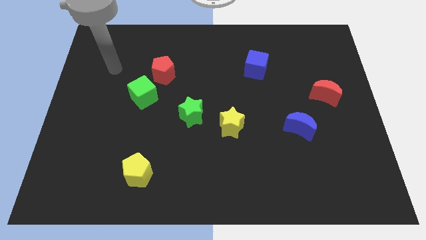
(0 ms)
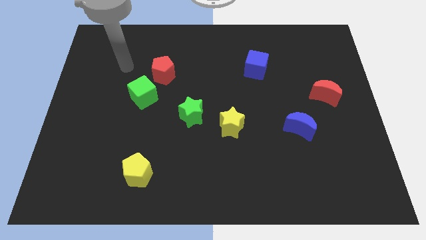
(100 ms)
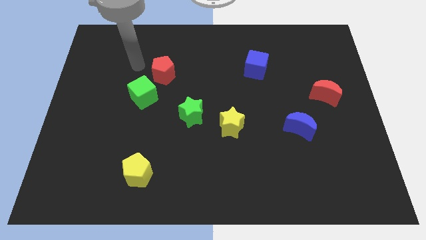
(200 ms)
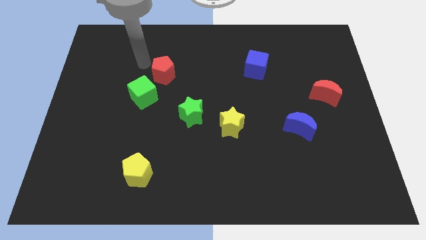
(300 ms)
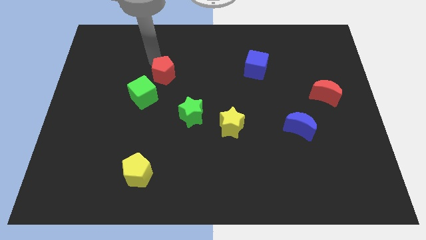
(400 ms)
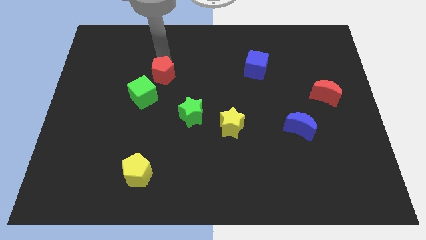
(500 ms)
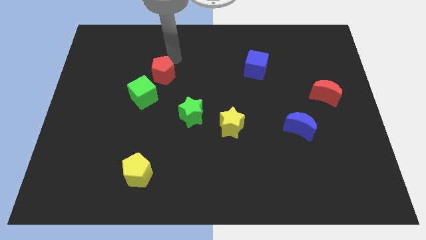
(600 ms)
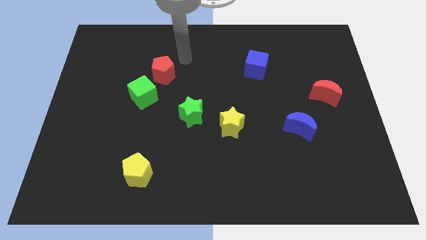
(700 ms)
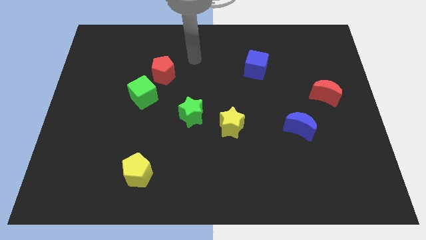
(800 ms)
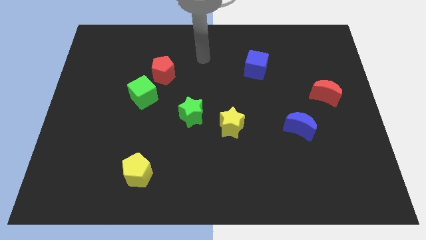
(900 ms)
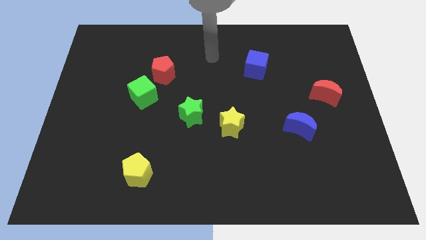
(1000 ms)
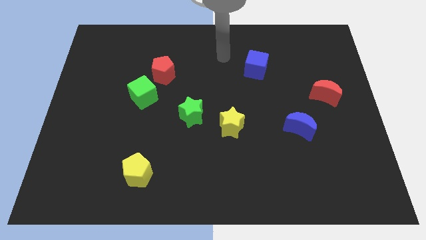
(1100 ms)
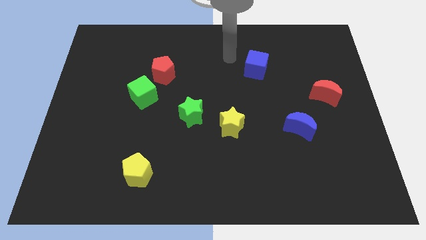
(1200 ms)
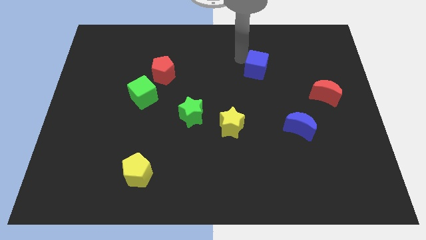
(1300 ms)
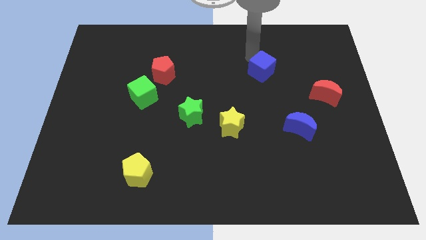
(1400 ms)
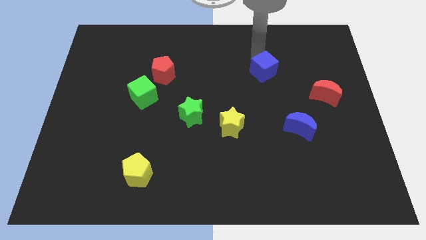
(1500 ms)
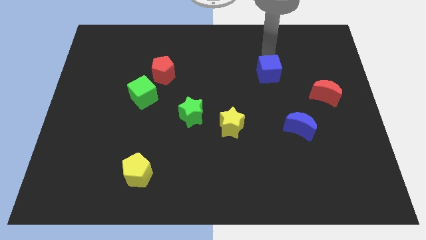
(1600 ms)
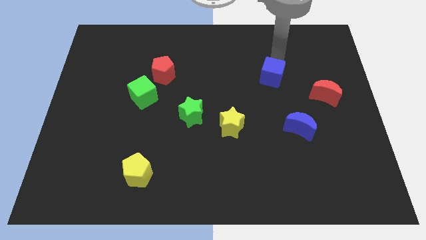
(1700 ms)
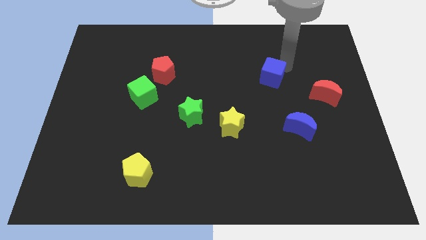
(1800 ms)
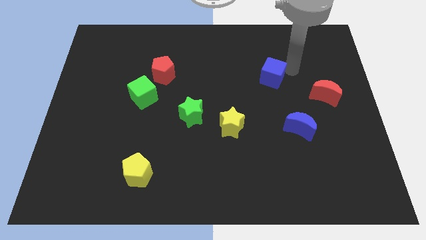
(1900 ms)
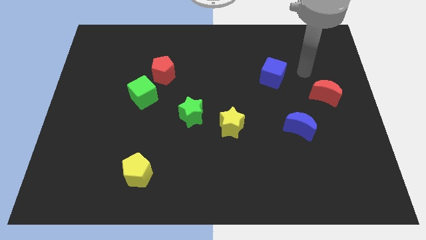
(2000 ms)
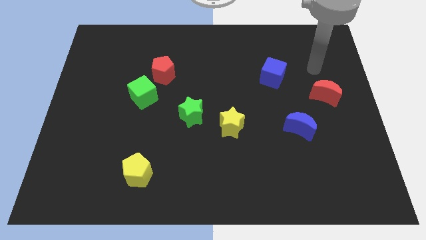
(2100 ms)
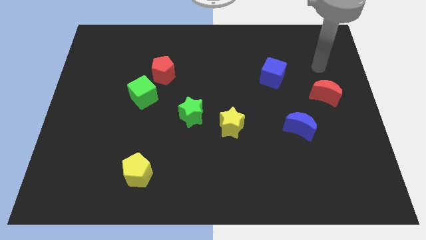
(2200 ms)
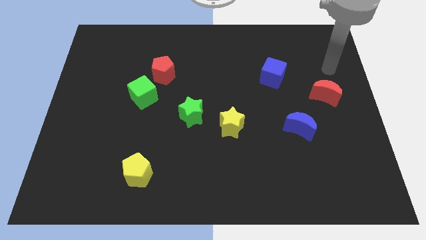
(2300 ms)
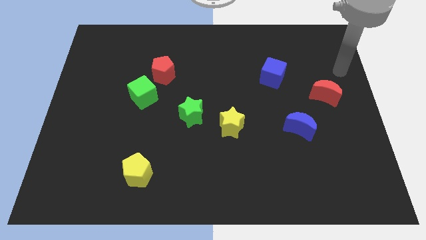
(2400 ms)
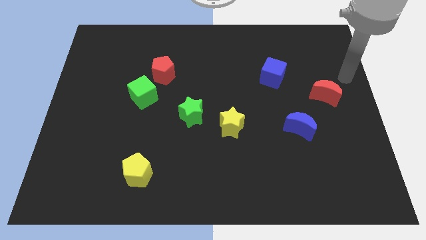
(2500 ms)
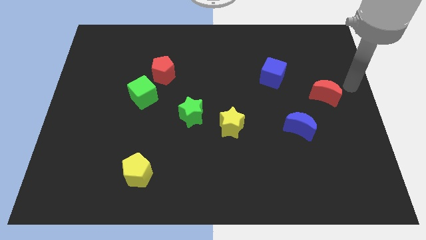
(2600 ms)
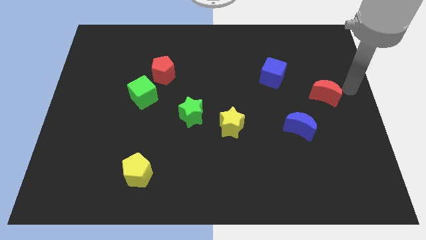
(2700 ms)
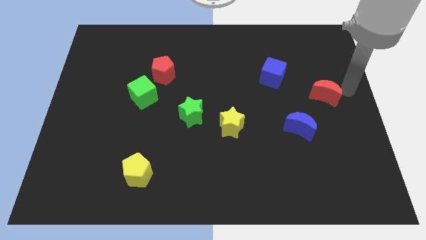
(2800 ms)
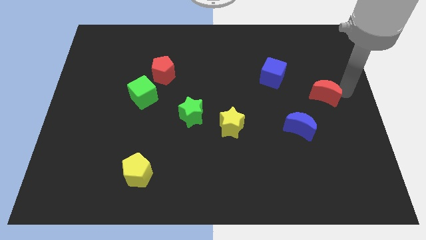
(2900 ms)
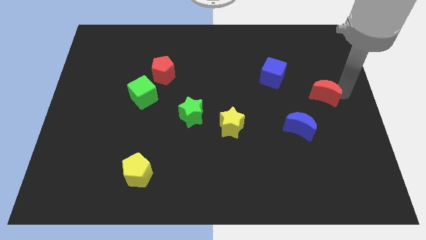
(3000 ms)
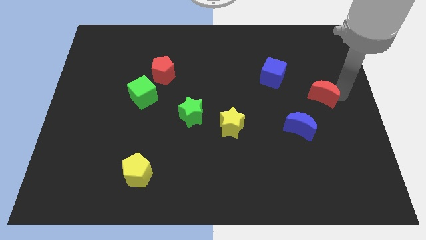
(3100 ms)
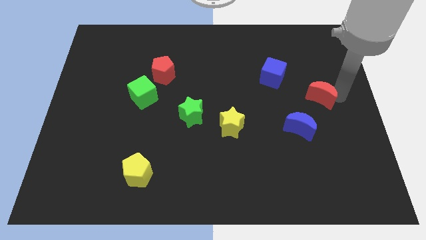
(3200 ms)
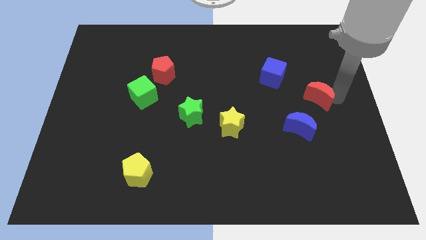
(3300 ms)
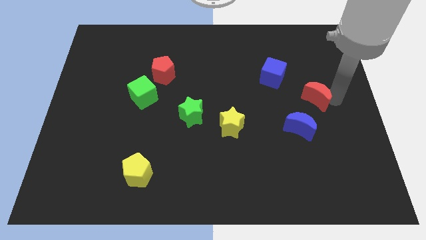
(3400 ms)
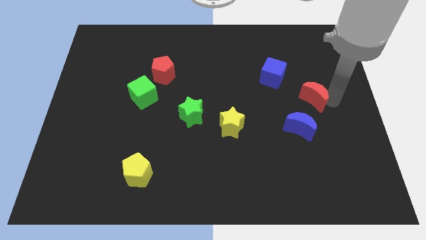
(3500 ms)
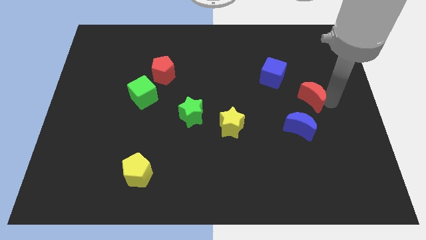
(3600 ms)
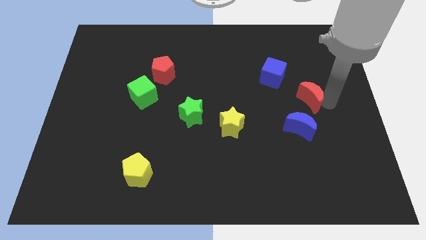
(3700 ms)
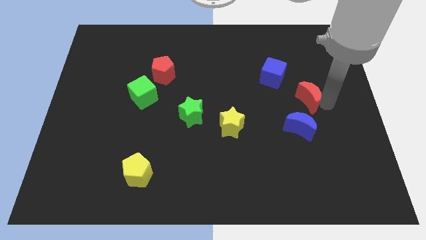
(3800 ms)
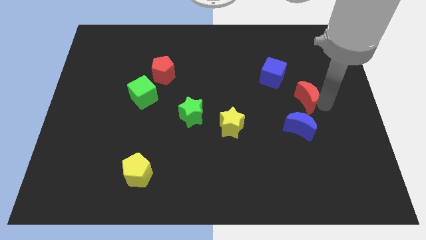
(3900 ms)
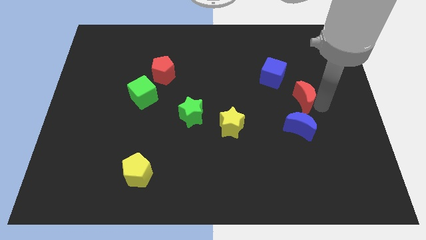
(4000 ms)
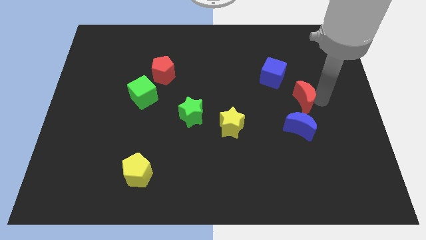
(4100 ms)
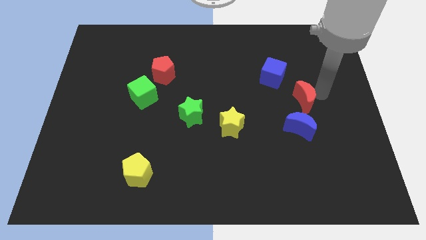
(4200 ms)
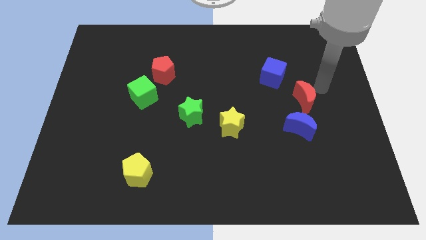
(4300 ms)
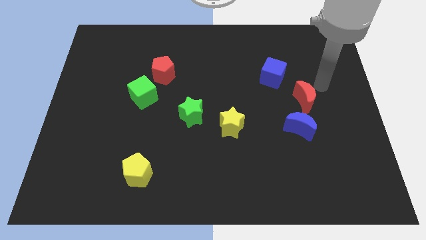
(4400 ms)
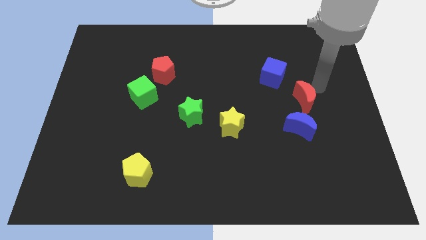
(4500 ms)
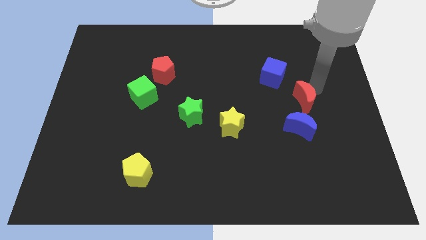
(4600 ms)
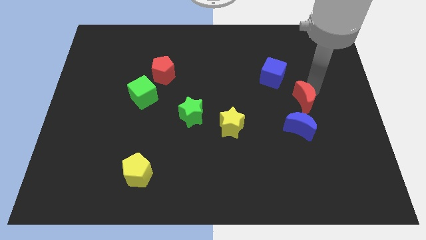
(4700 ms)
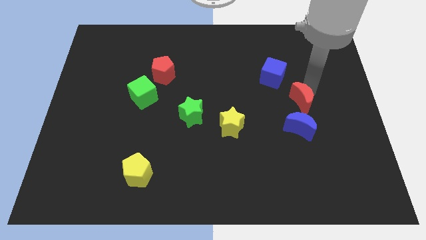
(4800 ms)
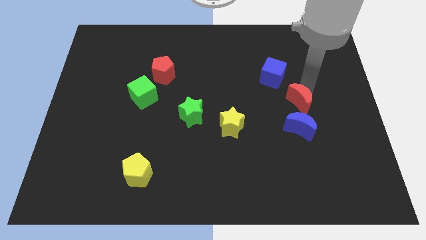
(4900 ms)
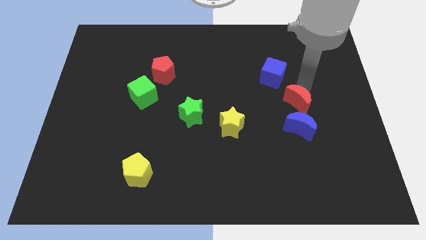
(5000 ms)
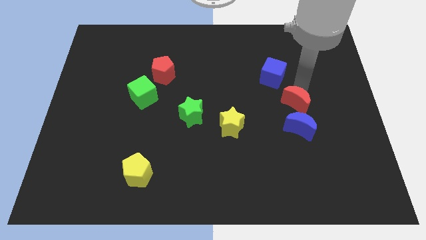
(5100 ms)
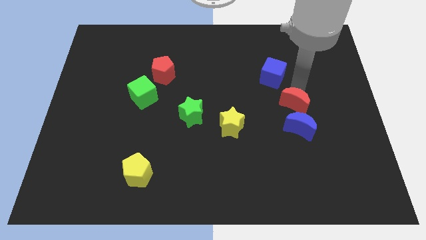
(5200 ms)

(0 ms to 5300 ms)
push the red moon diagonally down and left a little bit

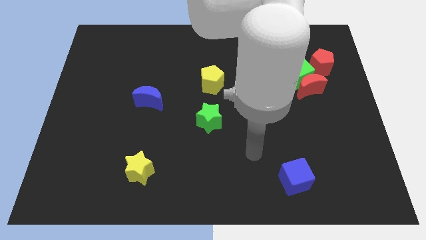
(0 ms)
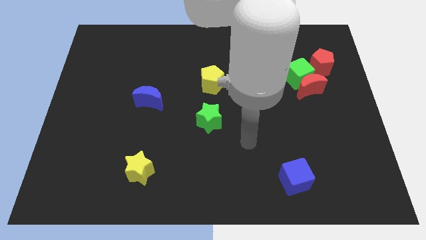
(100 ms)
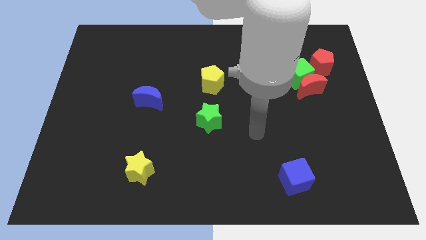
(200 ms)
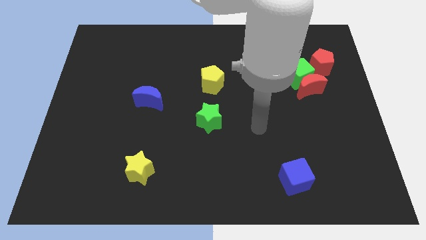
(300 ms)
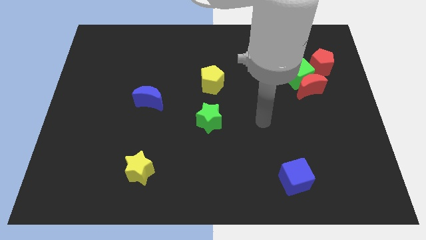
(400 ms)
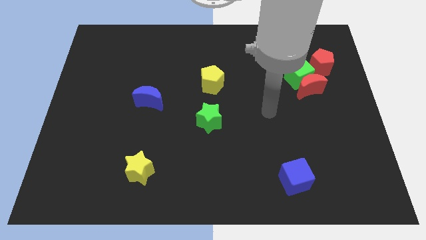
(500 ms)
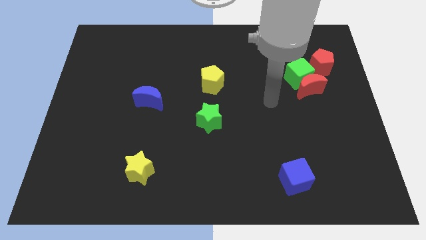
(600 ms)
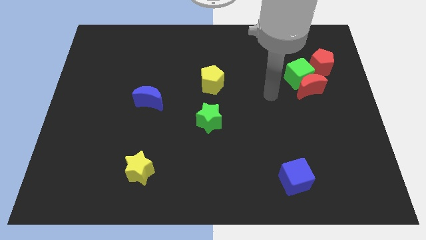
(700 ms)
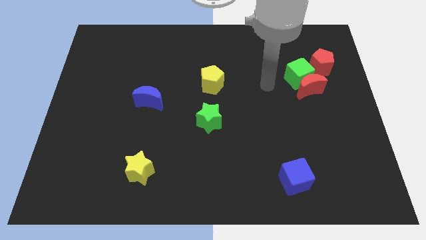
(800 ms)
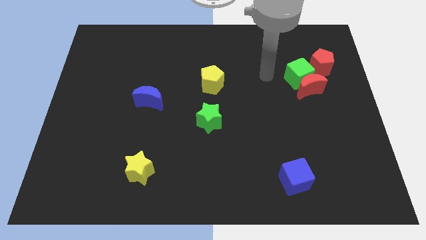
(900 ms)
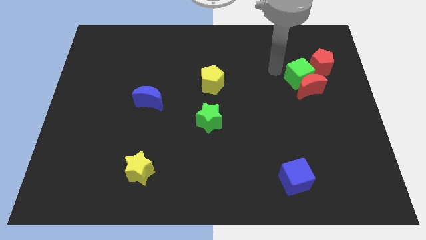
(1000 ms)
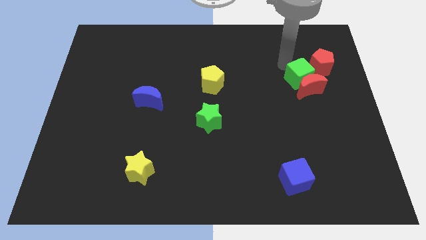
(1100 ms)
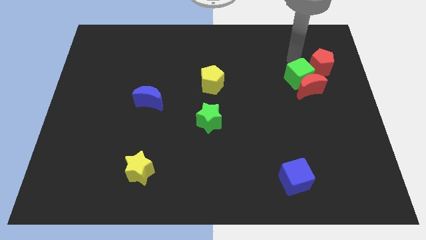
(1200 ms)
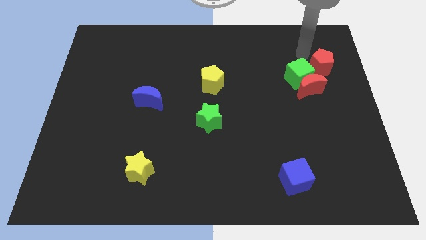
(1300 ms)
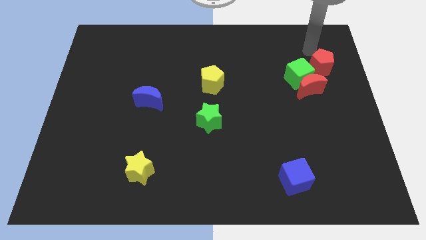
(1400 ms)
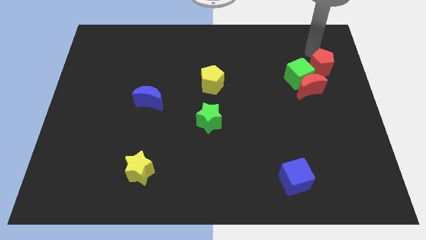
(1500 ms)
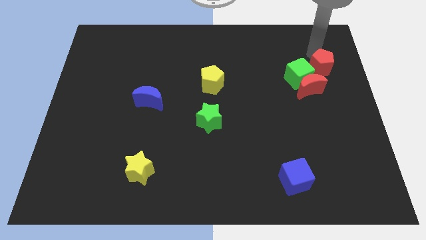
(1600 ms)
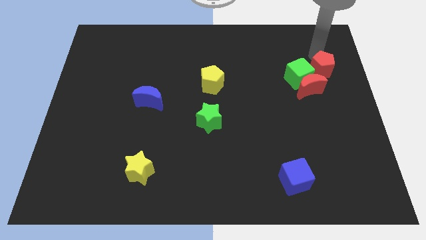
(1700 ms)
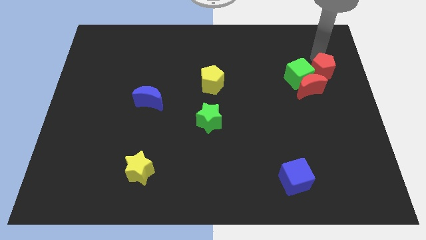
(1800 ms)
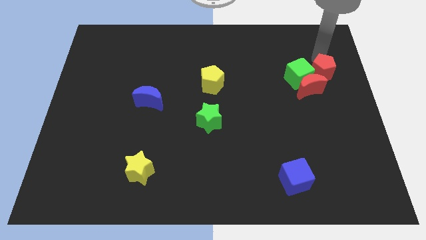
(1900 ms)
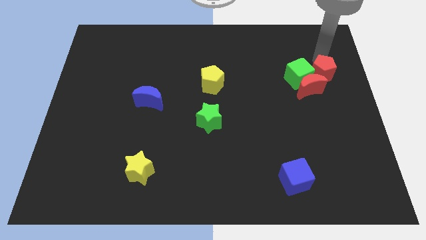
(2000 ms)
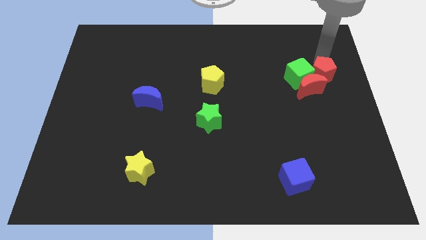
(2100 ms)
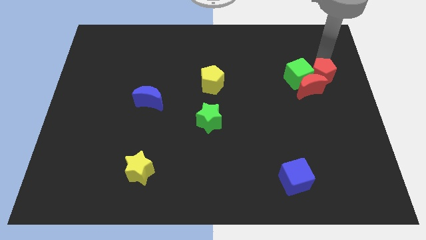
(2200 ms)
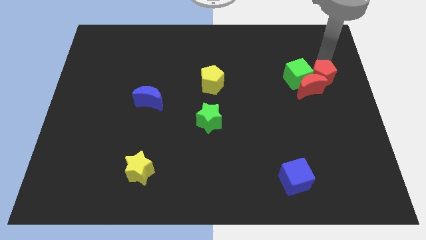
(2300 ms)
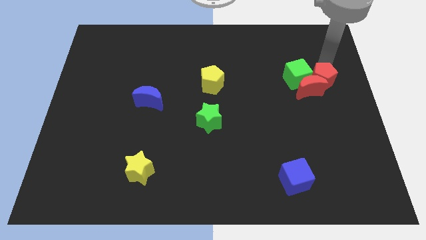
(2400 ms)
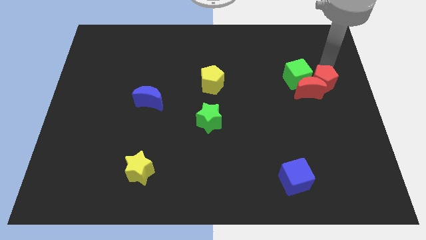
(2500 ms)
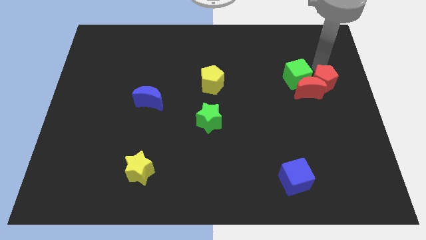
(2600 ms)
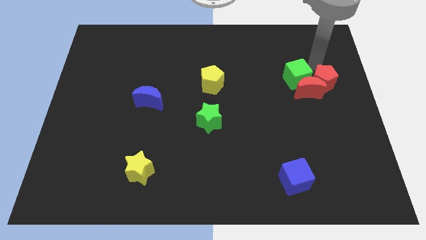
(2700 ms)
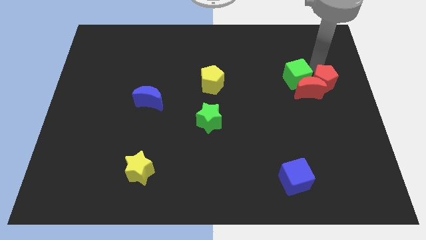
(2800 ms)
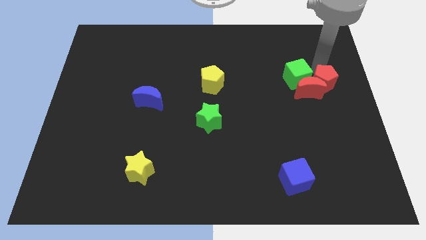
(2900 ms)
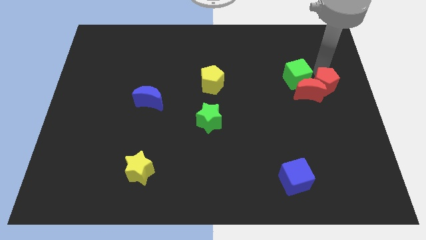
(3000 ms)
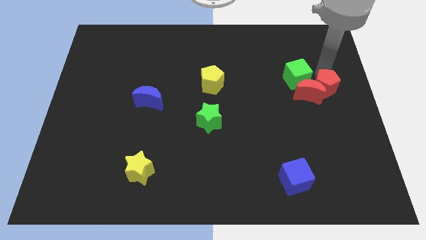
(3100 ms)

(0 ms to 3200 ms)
slide the red pentagon downwards a little bit
